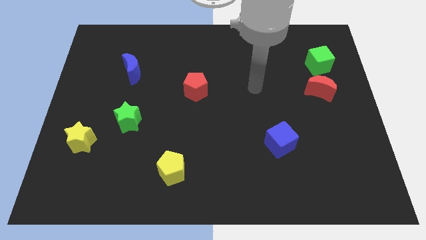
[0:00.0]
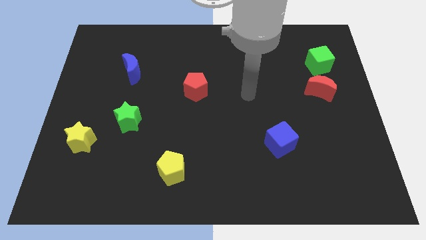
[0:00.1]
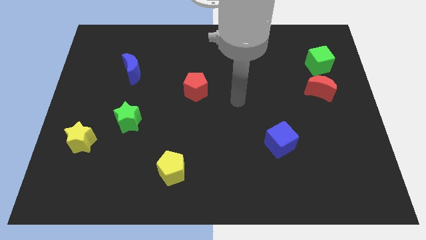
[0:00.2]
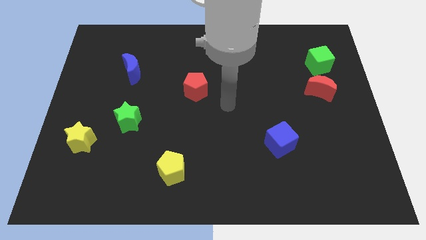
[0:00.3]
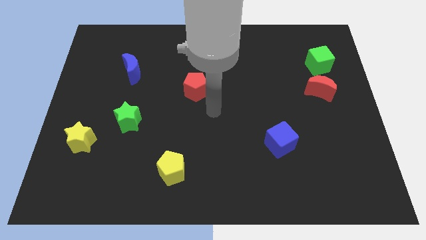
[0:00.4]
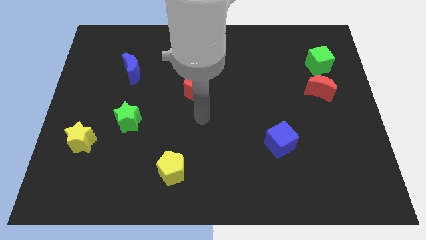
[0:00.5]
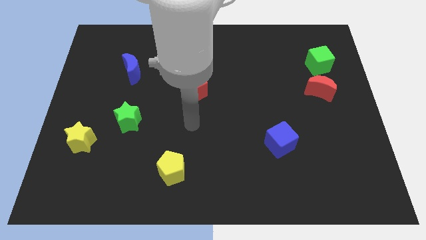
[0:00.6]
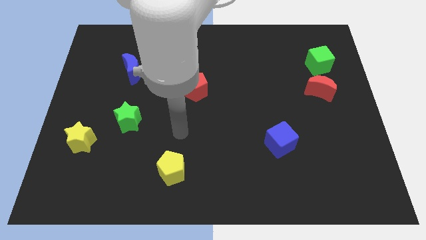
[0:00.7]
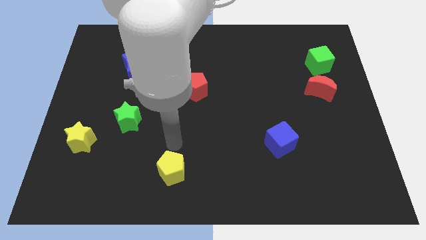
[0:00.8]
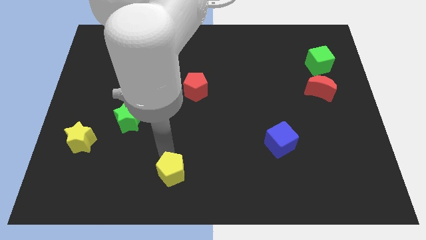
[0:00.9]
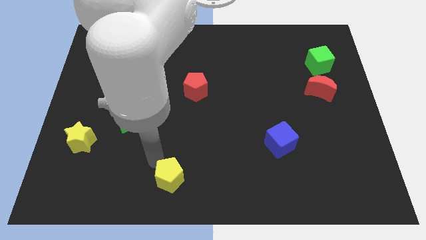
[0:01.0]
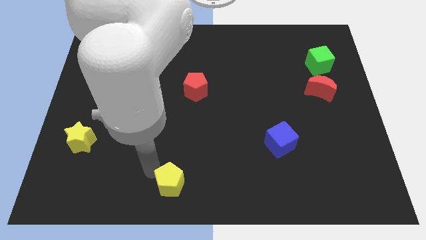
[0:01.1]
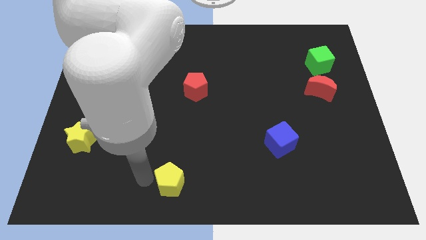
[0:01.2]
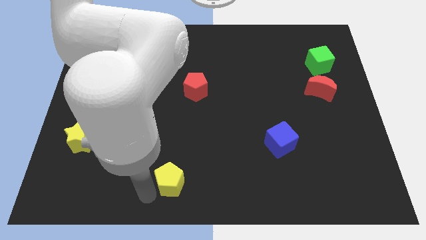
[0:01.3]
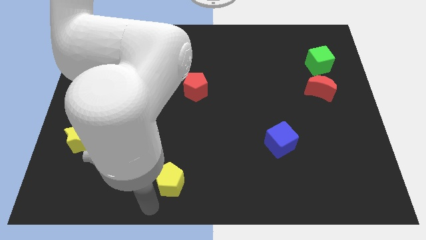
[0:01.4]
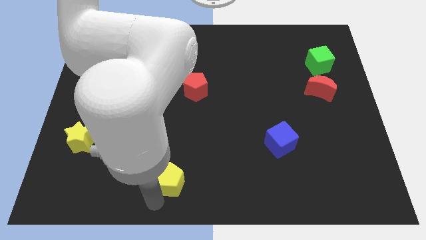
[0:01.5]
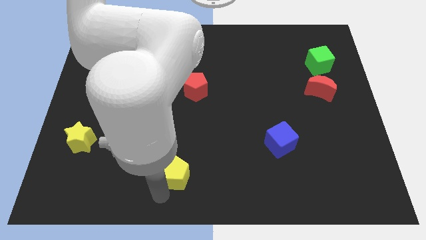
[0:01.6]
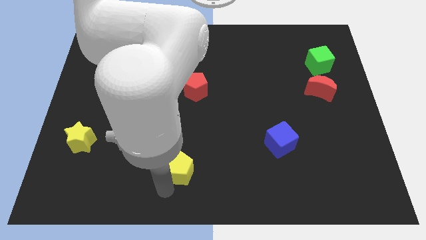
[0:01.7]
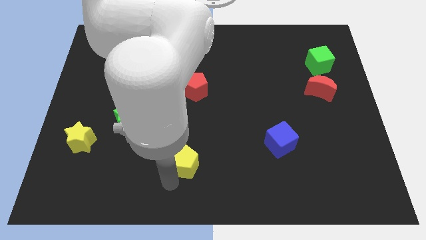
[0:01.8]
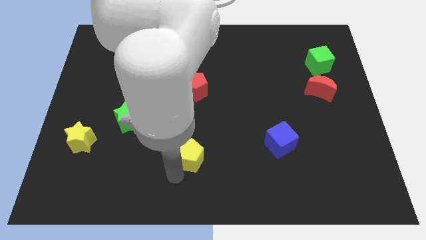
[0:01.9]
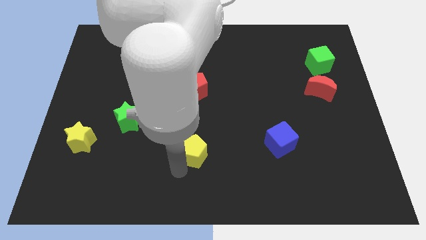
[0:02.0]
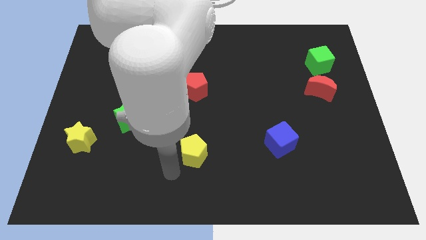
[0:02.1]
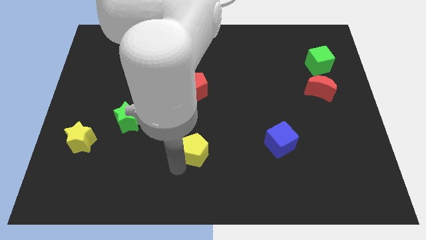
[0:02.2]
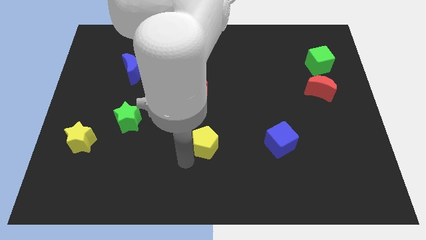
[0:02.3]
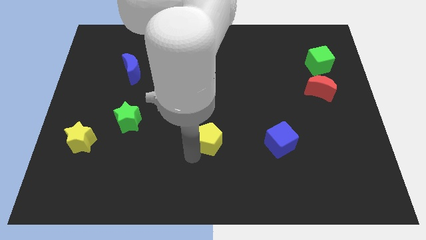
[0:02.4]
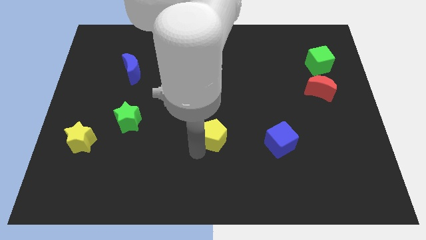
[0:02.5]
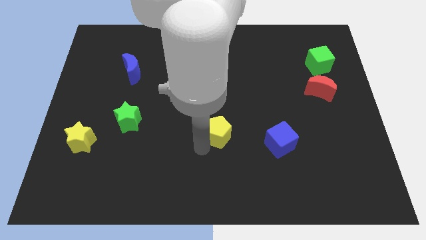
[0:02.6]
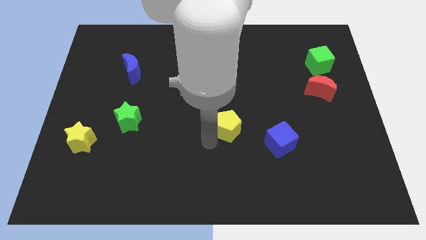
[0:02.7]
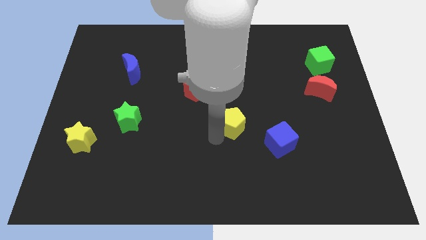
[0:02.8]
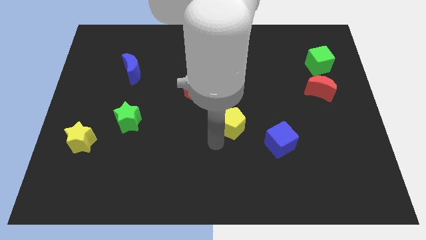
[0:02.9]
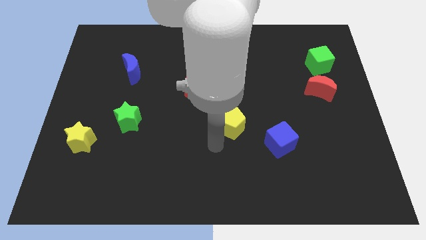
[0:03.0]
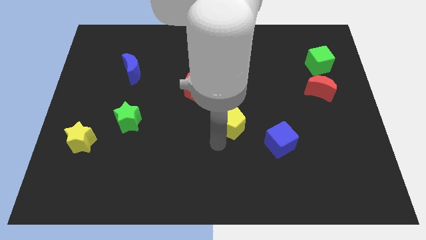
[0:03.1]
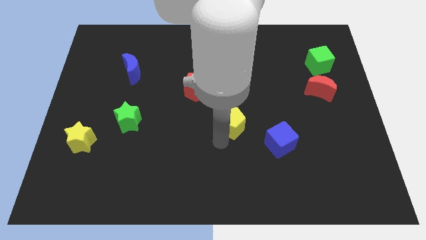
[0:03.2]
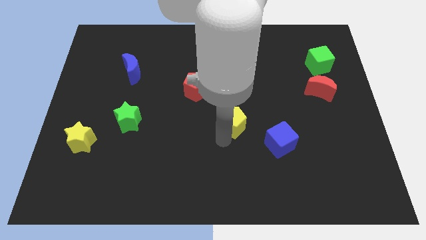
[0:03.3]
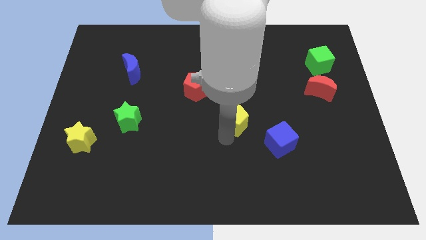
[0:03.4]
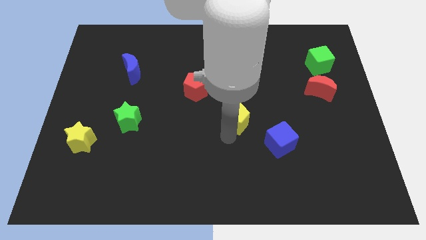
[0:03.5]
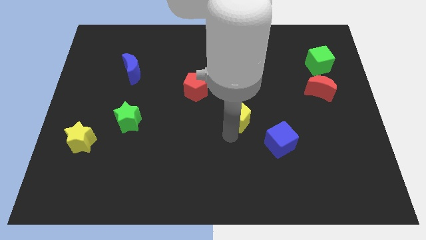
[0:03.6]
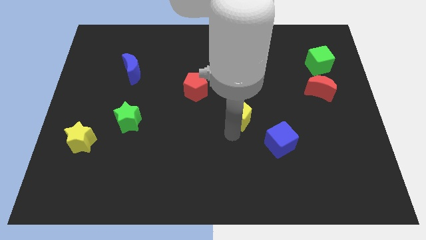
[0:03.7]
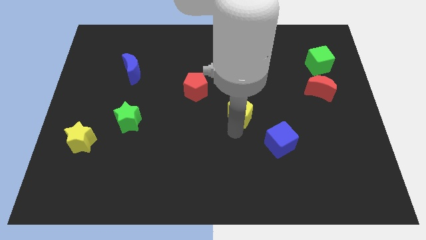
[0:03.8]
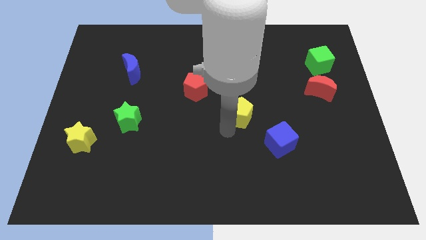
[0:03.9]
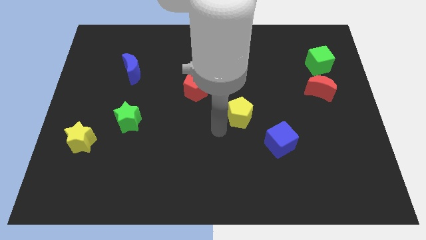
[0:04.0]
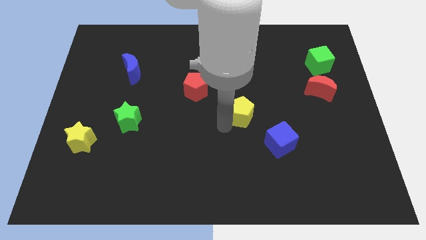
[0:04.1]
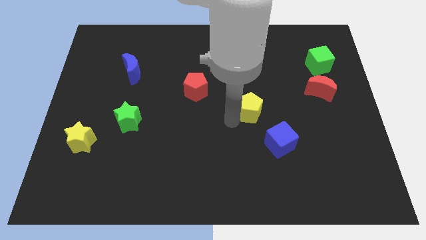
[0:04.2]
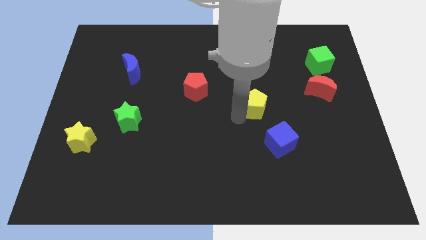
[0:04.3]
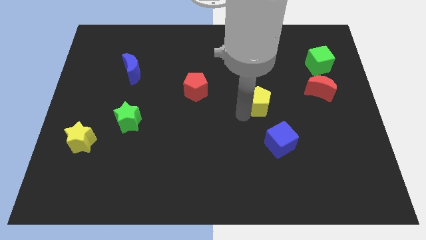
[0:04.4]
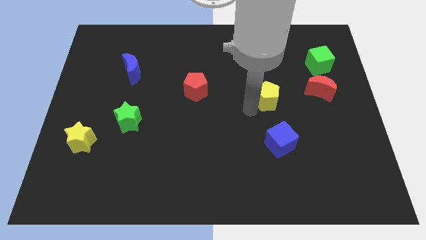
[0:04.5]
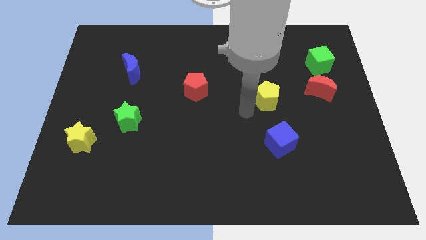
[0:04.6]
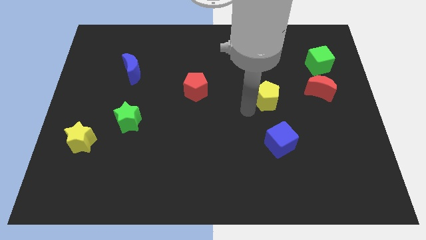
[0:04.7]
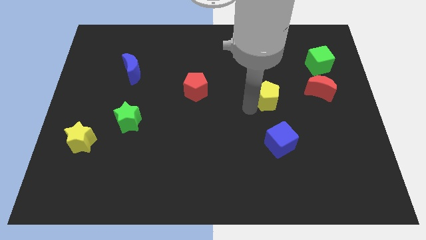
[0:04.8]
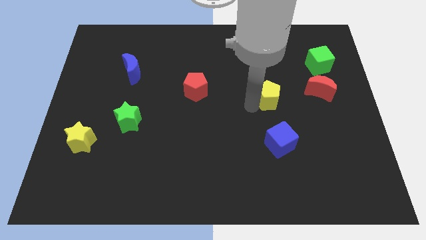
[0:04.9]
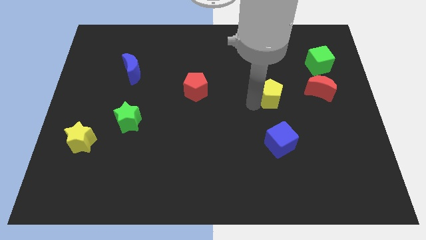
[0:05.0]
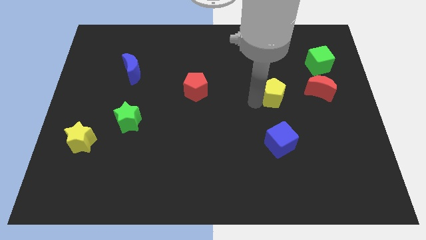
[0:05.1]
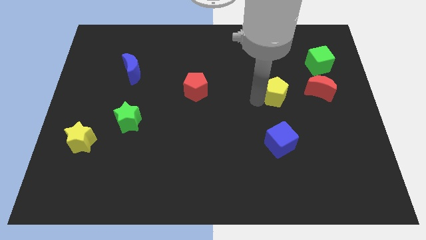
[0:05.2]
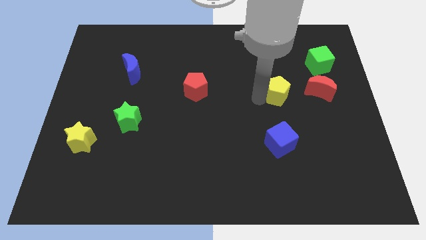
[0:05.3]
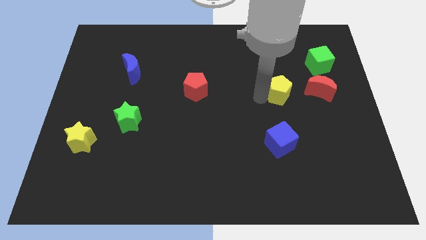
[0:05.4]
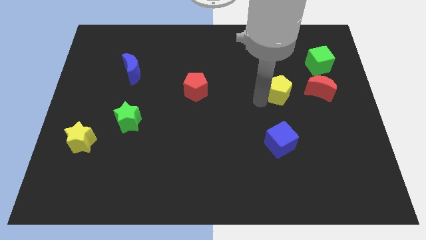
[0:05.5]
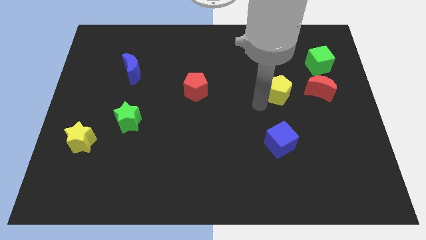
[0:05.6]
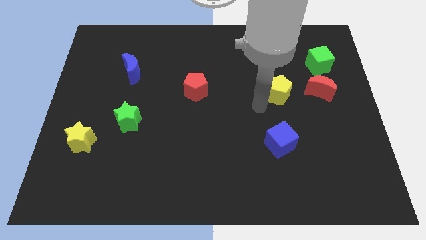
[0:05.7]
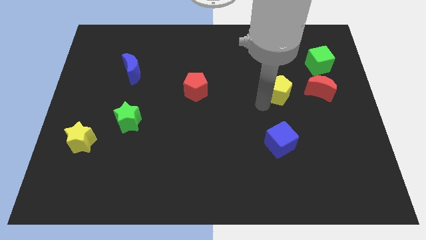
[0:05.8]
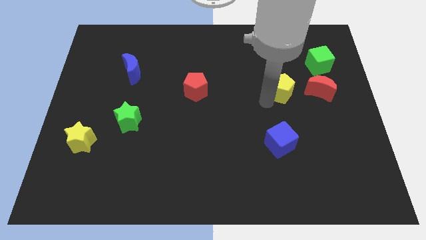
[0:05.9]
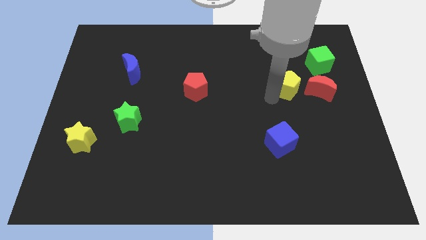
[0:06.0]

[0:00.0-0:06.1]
move the yellow pentagon to the bottom left of the green cube
